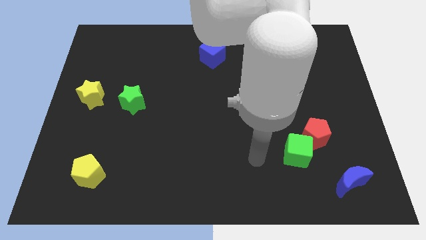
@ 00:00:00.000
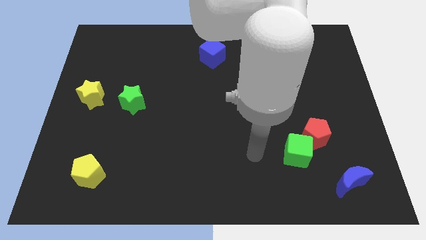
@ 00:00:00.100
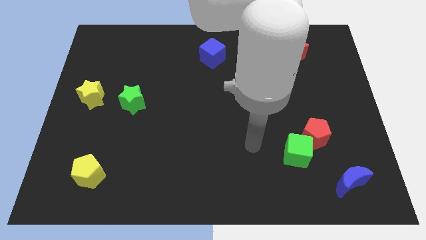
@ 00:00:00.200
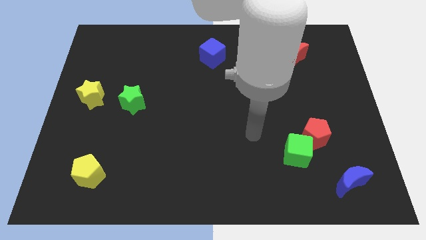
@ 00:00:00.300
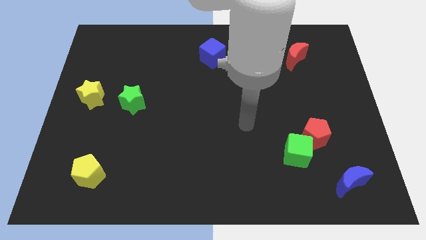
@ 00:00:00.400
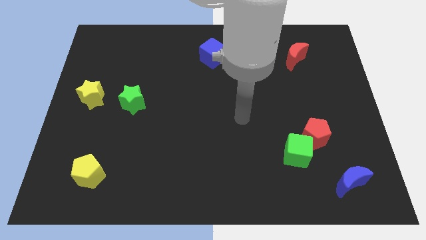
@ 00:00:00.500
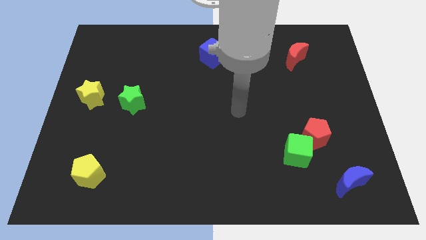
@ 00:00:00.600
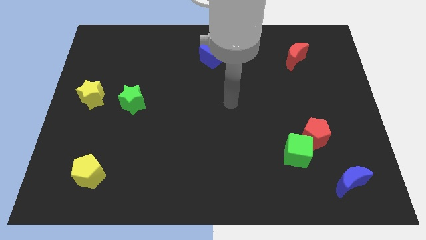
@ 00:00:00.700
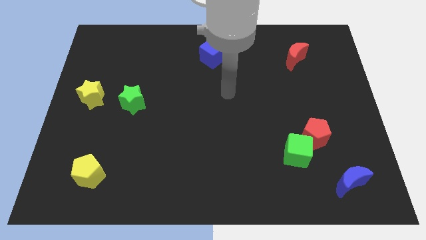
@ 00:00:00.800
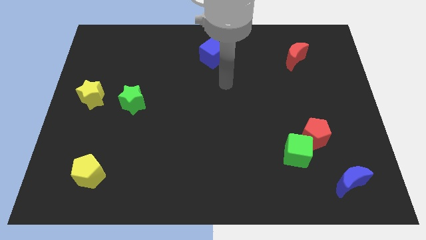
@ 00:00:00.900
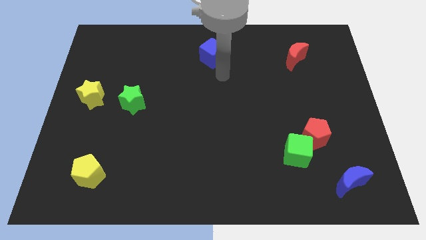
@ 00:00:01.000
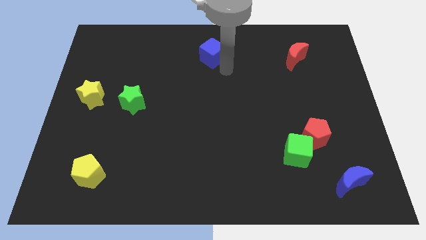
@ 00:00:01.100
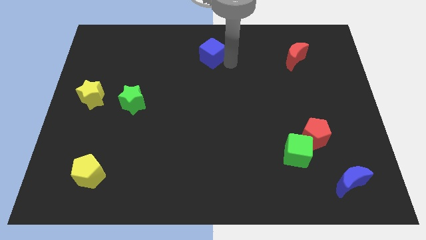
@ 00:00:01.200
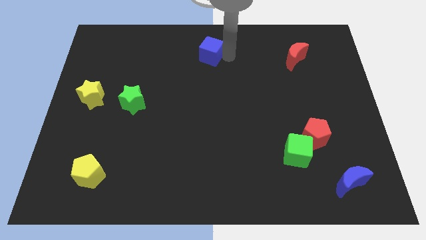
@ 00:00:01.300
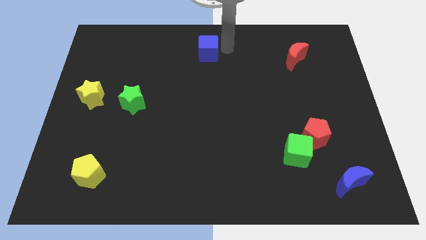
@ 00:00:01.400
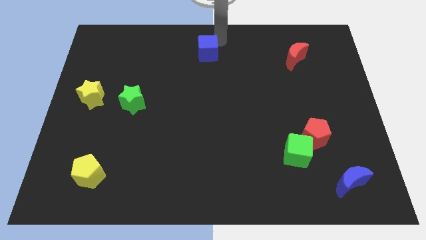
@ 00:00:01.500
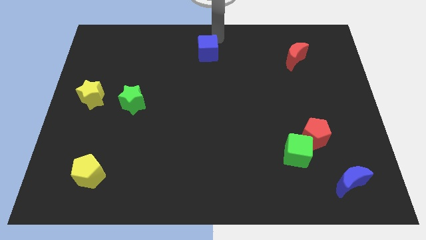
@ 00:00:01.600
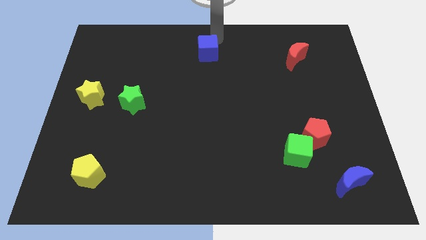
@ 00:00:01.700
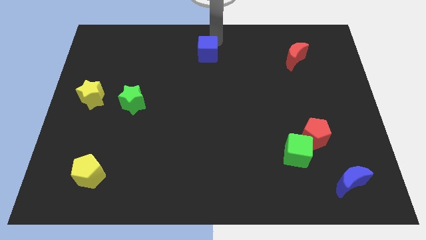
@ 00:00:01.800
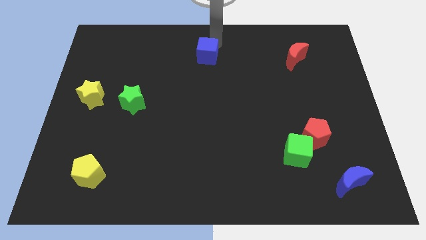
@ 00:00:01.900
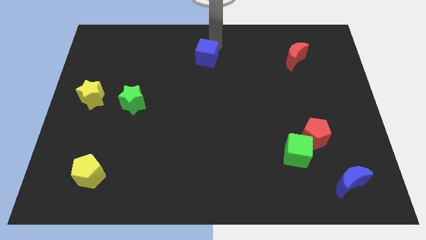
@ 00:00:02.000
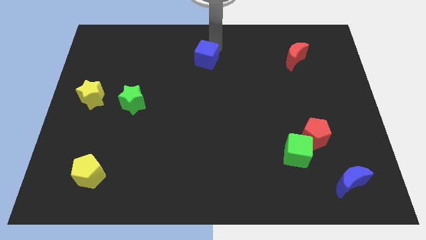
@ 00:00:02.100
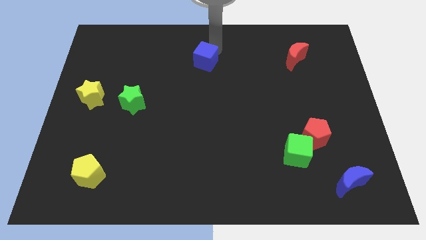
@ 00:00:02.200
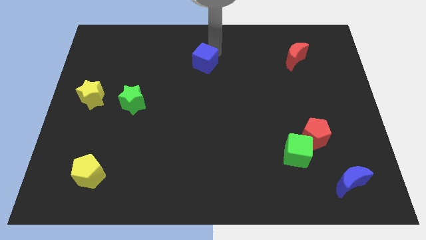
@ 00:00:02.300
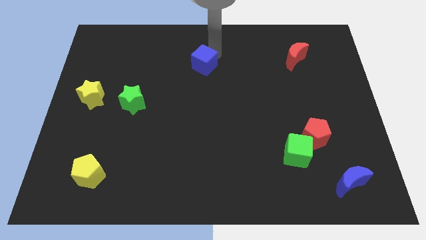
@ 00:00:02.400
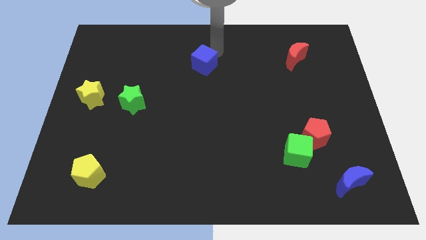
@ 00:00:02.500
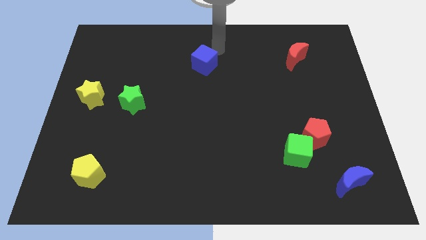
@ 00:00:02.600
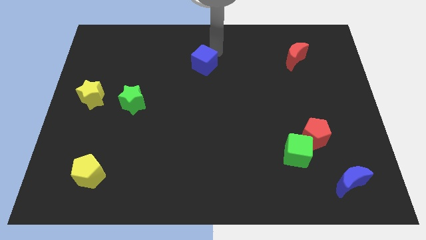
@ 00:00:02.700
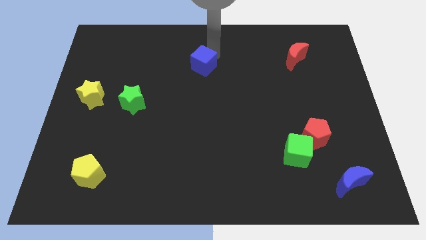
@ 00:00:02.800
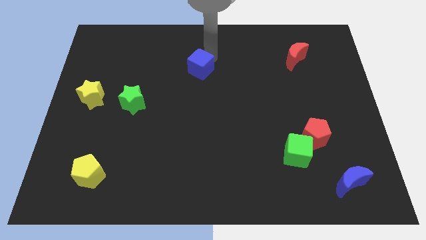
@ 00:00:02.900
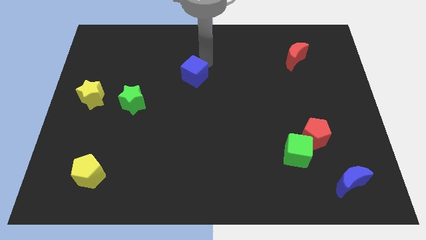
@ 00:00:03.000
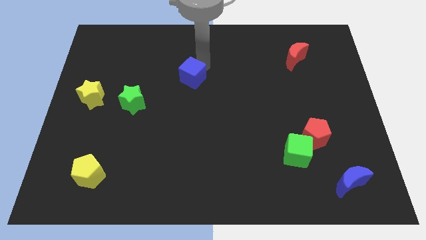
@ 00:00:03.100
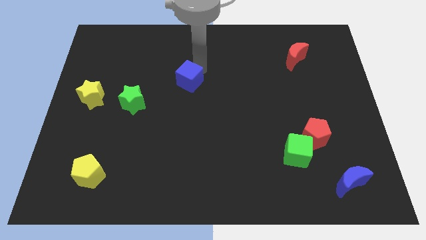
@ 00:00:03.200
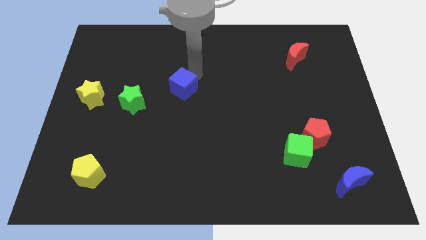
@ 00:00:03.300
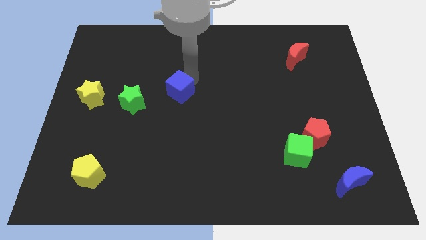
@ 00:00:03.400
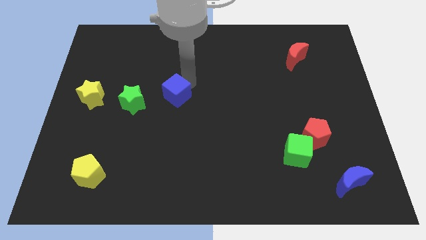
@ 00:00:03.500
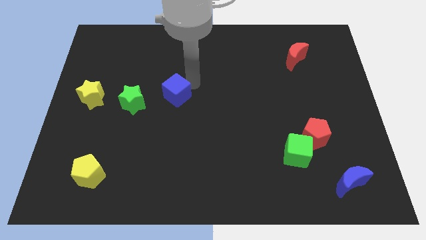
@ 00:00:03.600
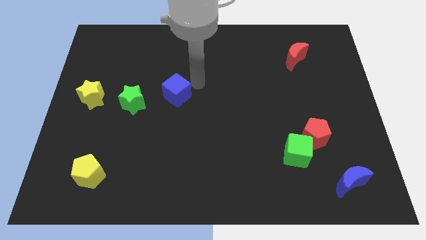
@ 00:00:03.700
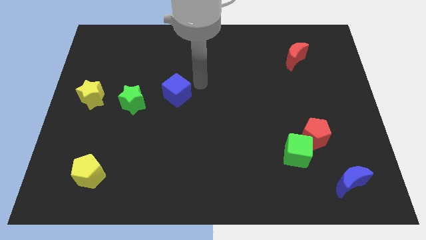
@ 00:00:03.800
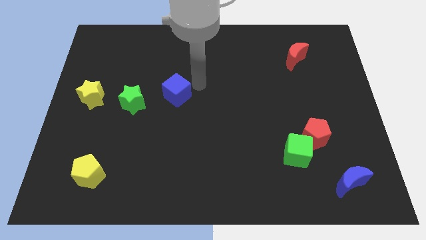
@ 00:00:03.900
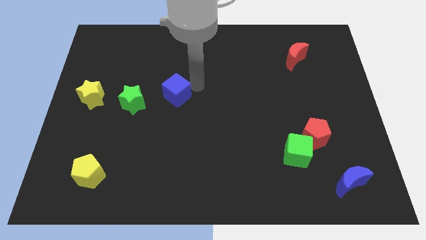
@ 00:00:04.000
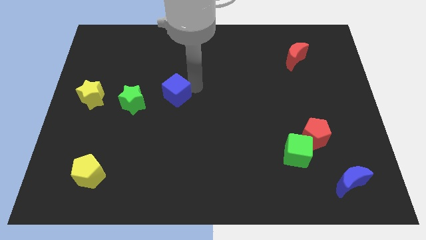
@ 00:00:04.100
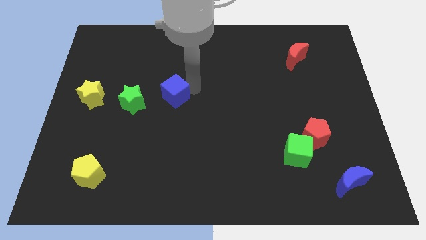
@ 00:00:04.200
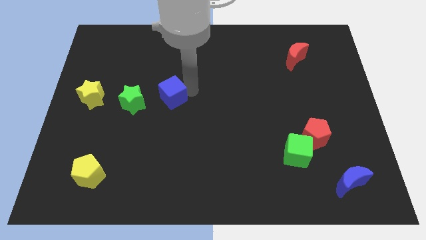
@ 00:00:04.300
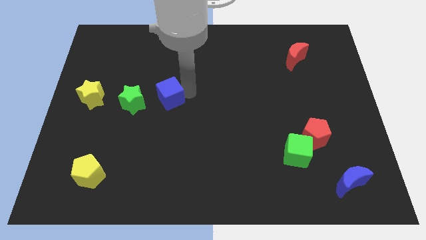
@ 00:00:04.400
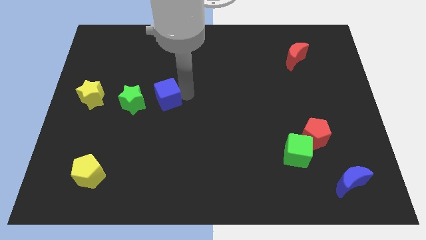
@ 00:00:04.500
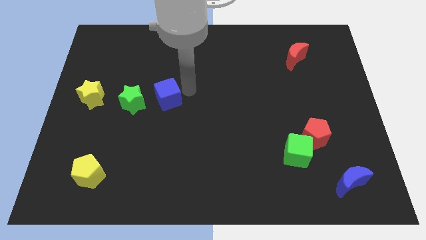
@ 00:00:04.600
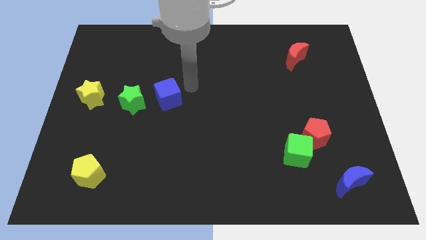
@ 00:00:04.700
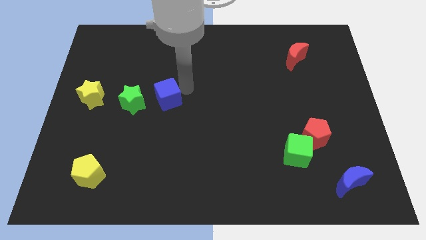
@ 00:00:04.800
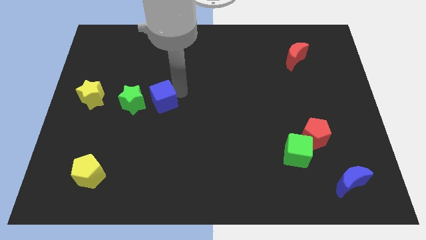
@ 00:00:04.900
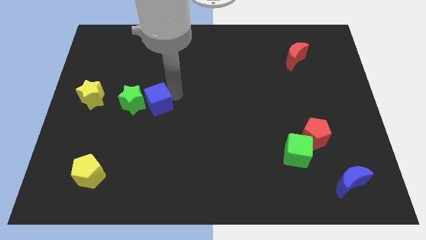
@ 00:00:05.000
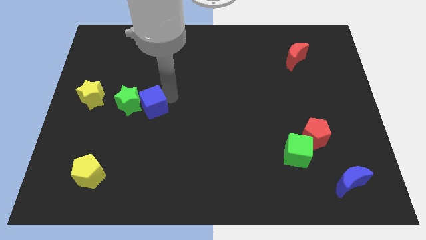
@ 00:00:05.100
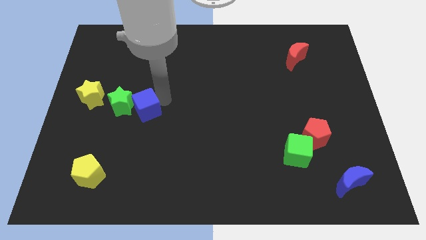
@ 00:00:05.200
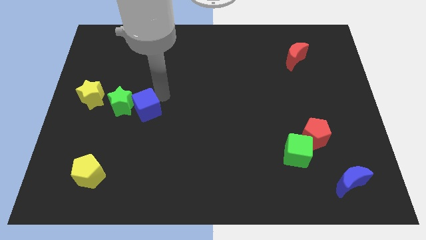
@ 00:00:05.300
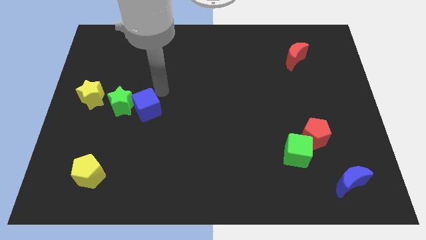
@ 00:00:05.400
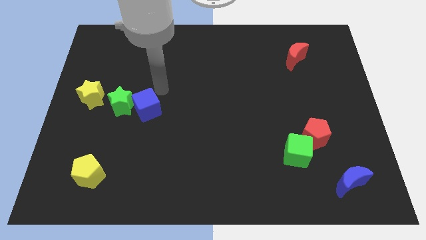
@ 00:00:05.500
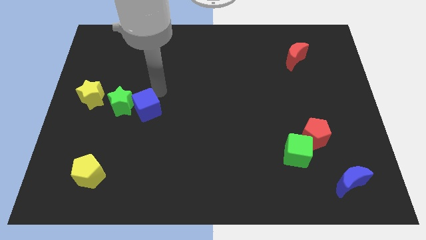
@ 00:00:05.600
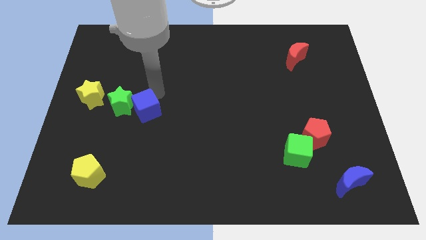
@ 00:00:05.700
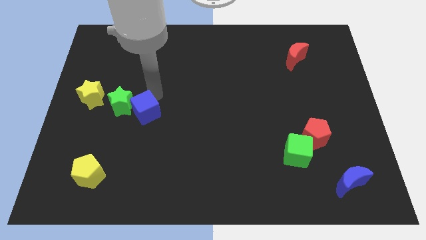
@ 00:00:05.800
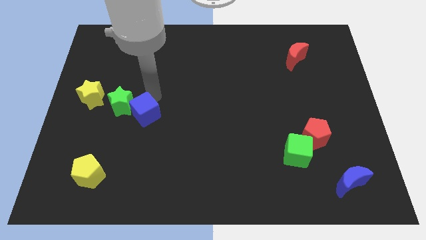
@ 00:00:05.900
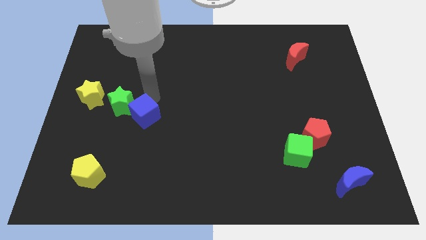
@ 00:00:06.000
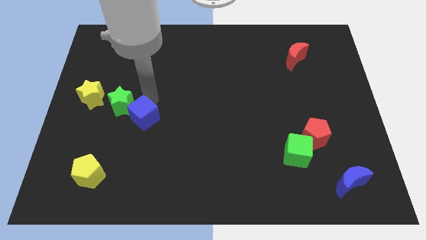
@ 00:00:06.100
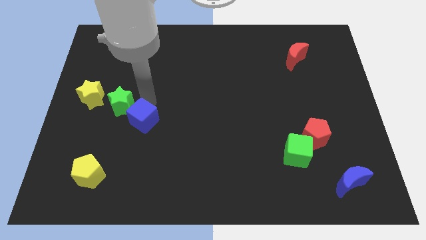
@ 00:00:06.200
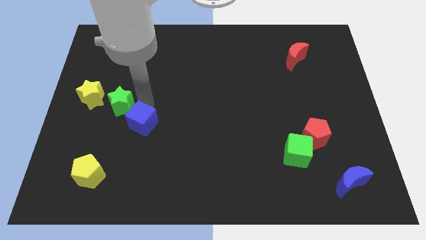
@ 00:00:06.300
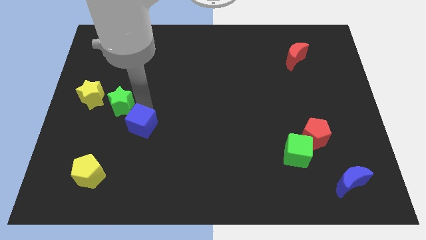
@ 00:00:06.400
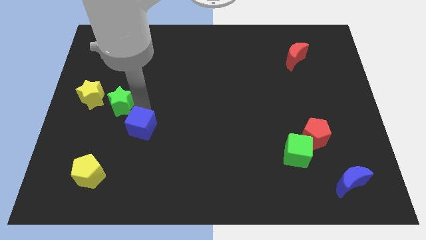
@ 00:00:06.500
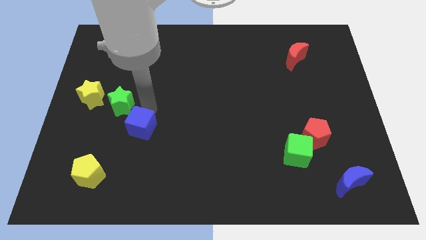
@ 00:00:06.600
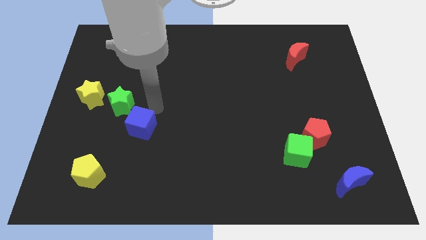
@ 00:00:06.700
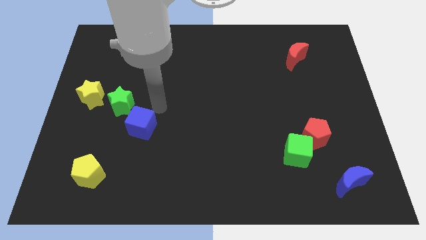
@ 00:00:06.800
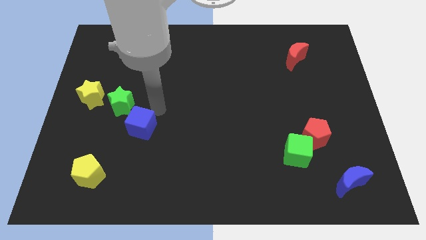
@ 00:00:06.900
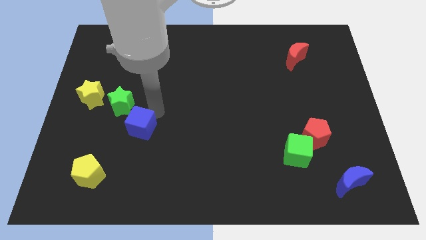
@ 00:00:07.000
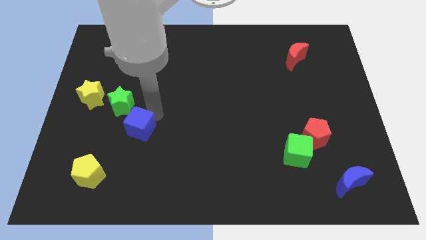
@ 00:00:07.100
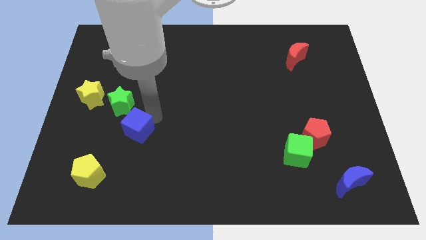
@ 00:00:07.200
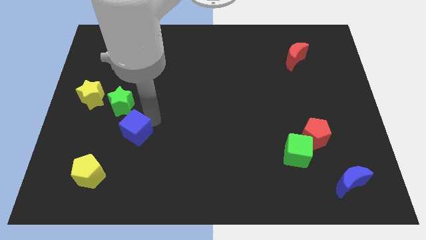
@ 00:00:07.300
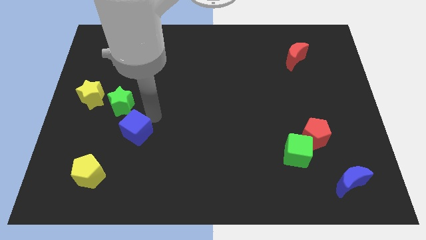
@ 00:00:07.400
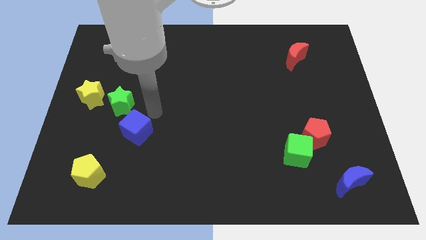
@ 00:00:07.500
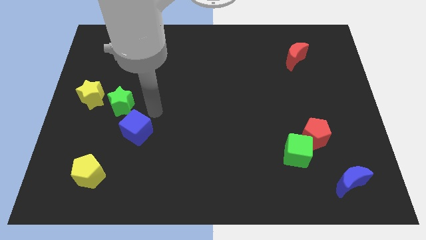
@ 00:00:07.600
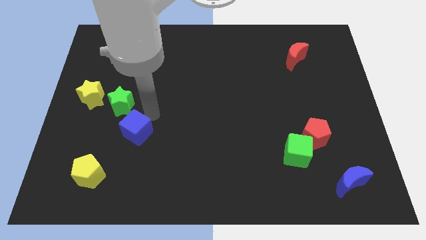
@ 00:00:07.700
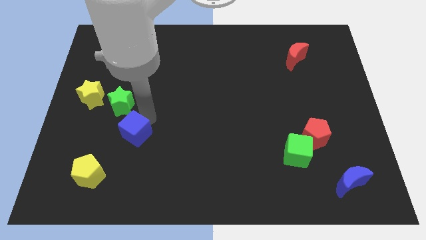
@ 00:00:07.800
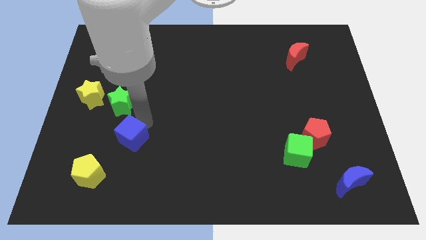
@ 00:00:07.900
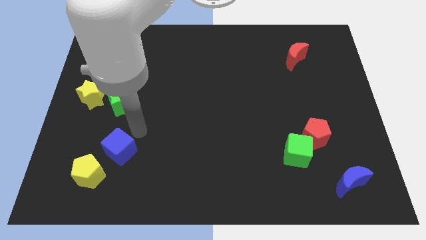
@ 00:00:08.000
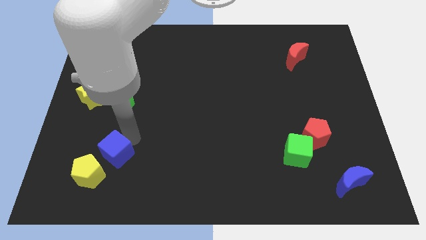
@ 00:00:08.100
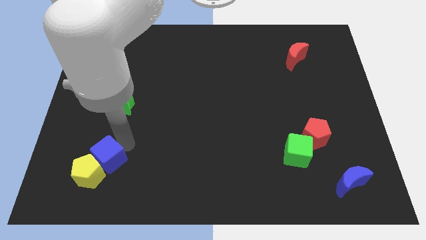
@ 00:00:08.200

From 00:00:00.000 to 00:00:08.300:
move the blue cube towards the yellow pentagon
